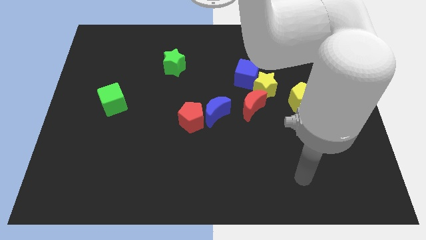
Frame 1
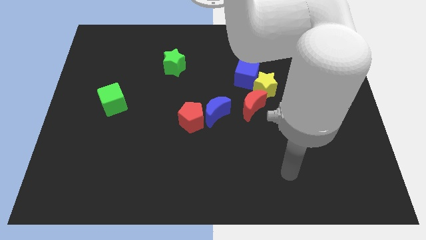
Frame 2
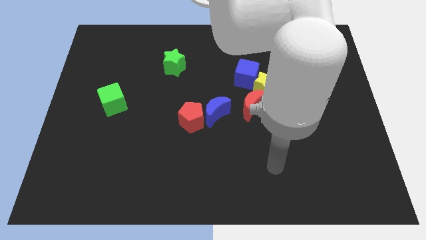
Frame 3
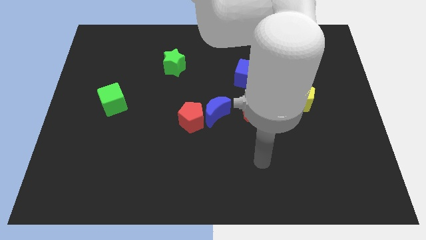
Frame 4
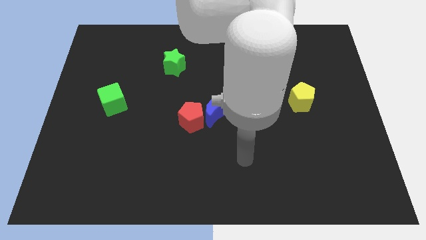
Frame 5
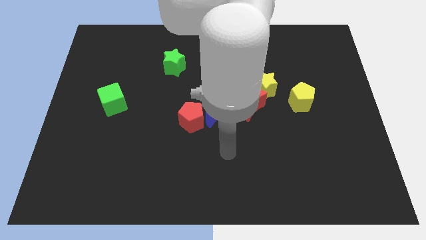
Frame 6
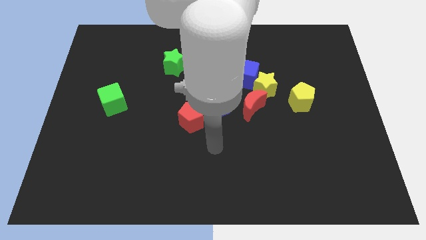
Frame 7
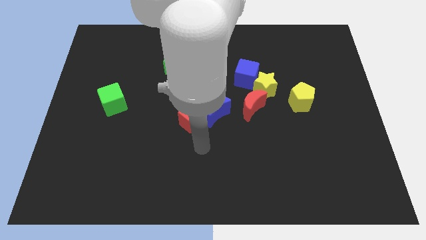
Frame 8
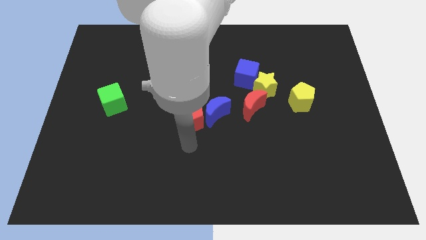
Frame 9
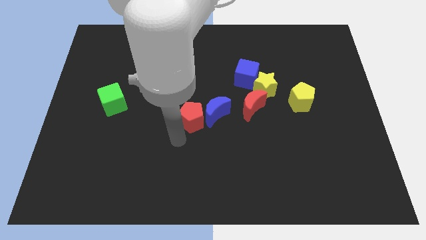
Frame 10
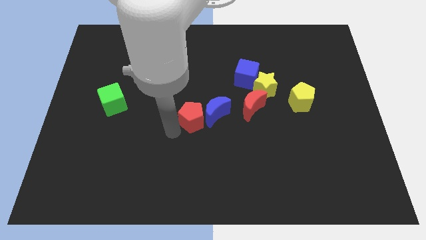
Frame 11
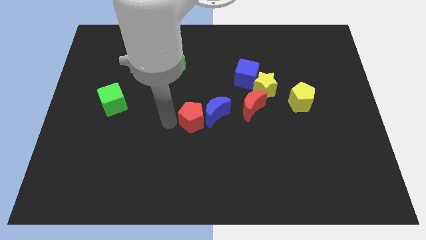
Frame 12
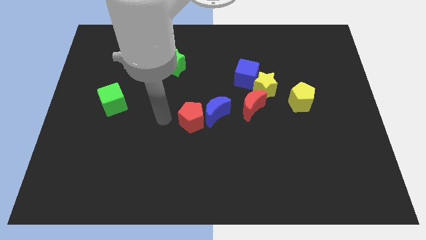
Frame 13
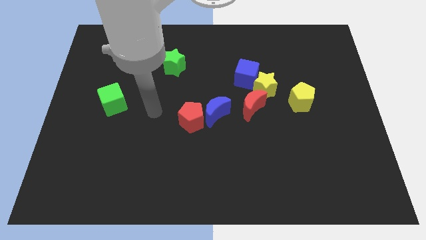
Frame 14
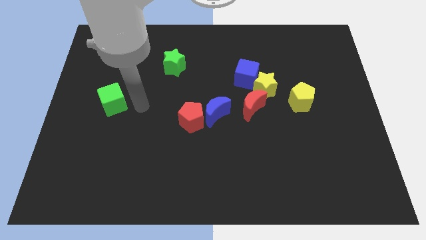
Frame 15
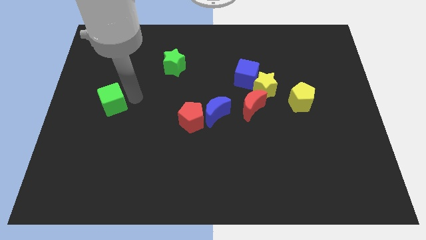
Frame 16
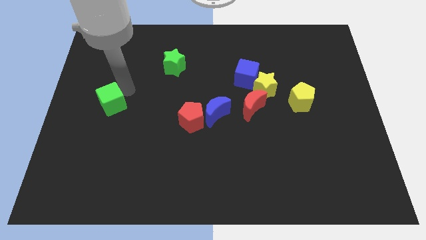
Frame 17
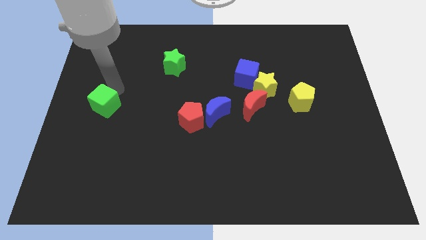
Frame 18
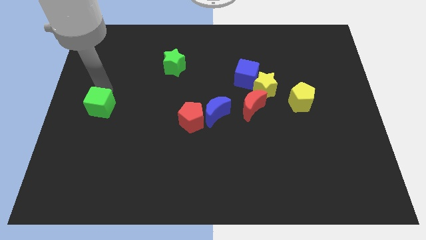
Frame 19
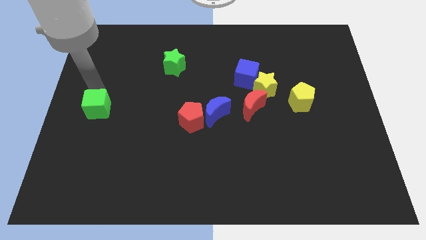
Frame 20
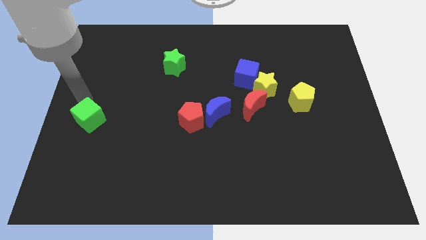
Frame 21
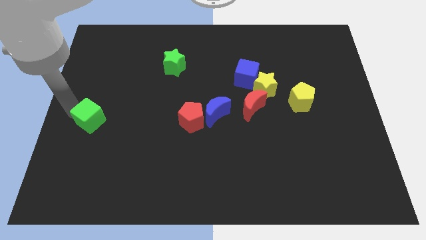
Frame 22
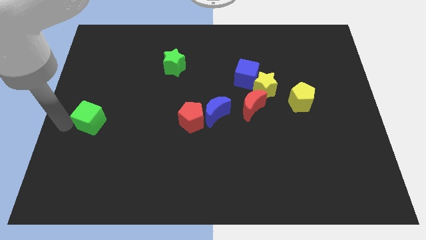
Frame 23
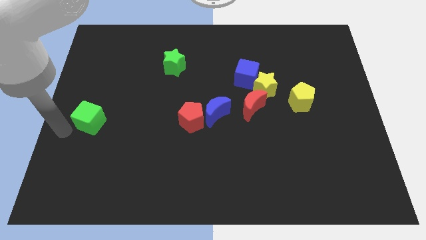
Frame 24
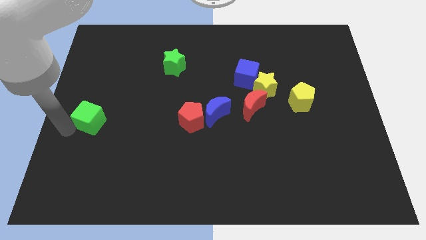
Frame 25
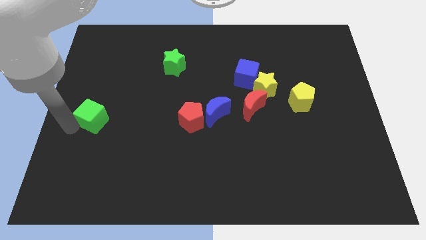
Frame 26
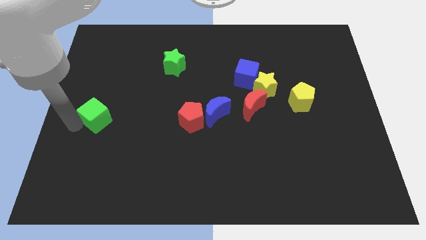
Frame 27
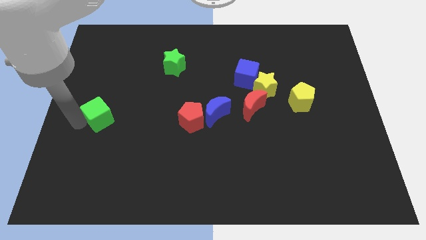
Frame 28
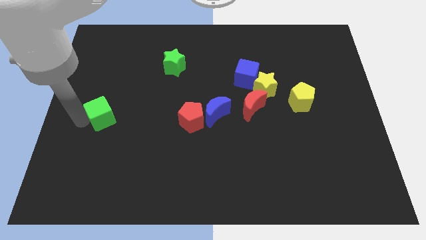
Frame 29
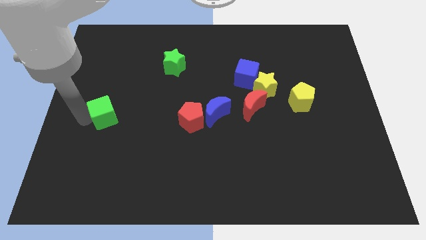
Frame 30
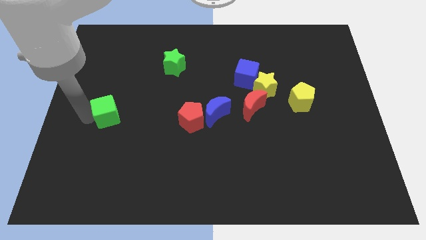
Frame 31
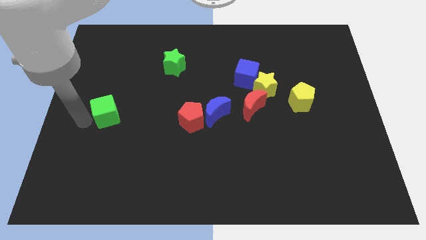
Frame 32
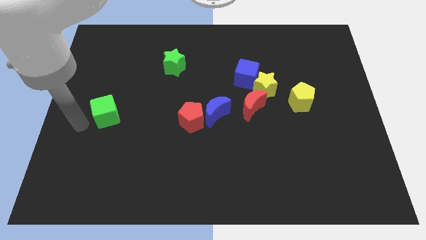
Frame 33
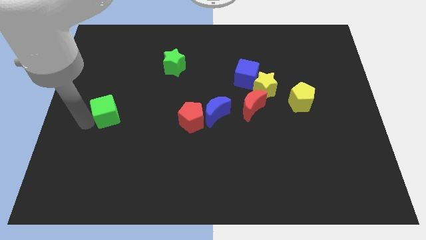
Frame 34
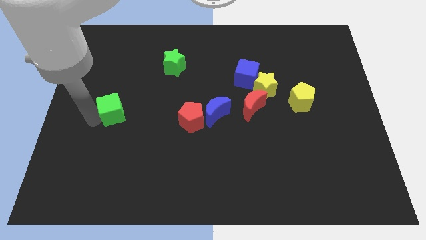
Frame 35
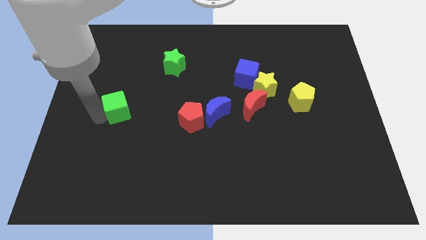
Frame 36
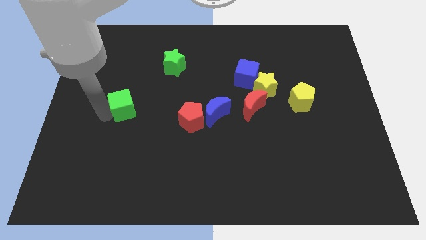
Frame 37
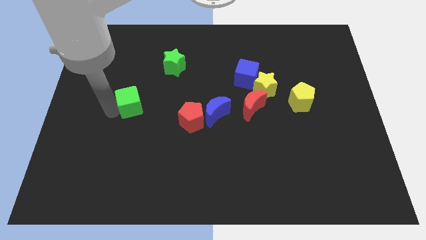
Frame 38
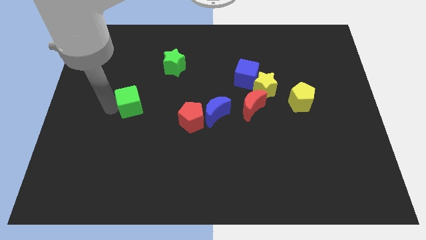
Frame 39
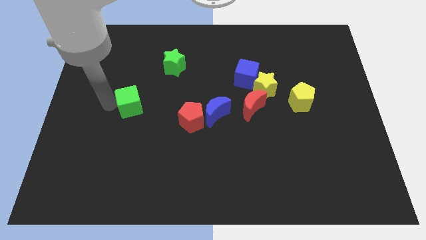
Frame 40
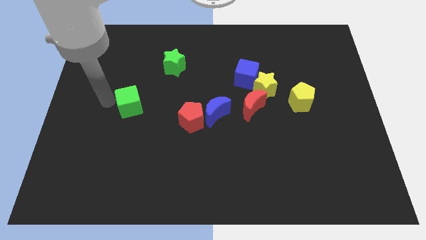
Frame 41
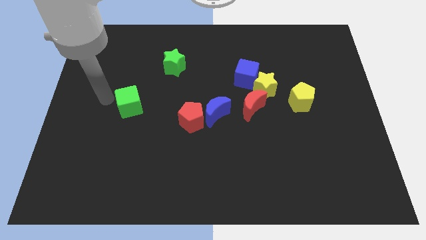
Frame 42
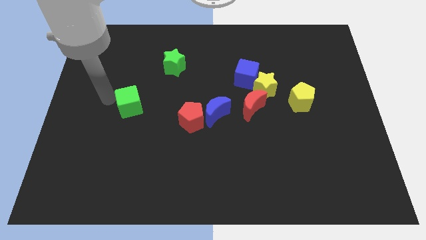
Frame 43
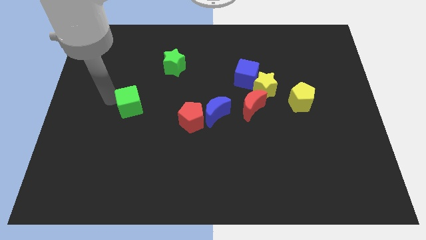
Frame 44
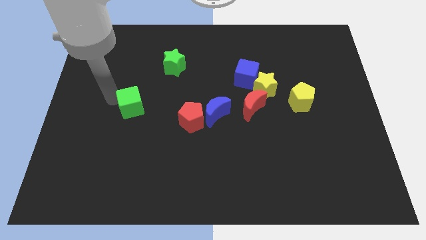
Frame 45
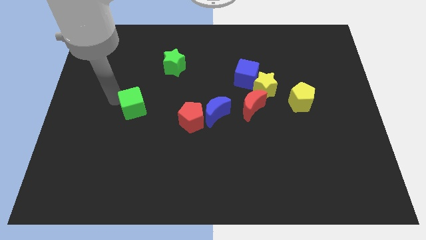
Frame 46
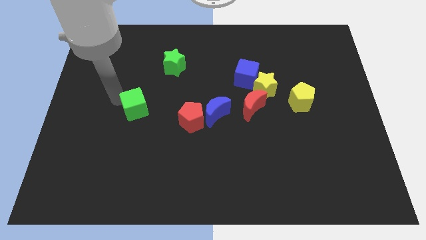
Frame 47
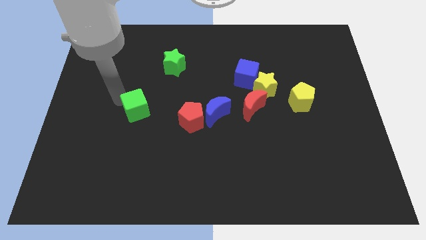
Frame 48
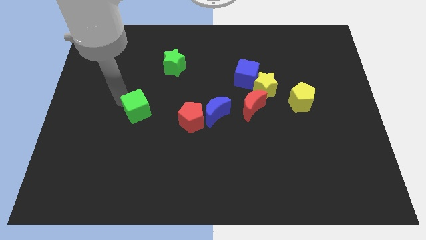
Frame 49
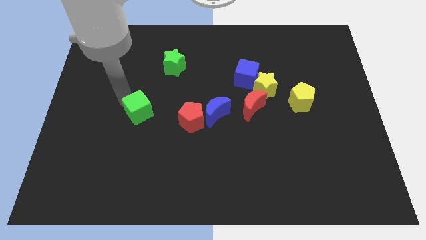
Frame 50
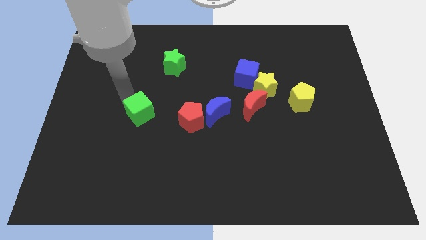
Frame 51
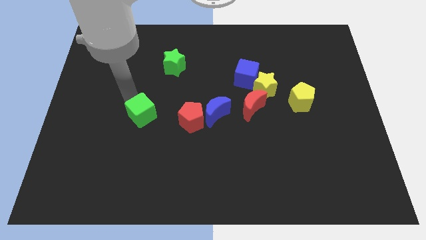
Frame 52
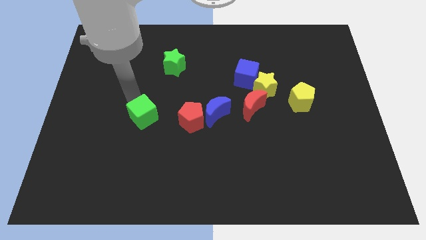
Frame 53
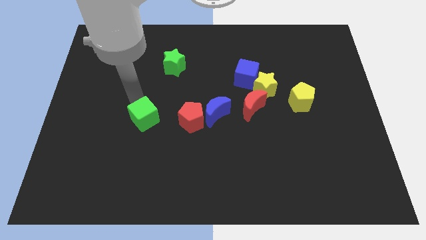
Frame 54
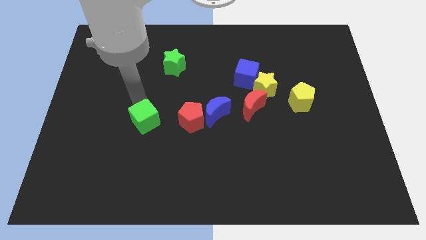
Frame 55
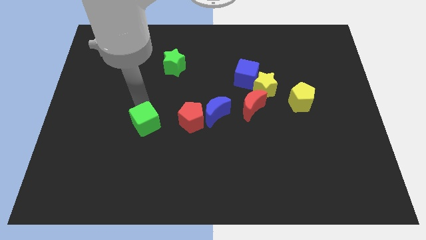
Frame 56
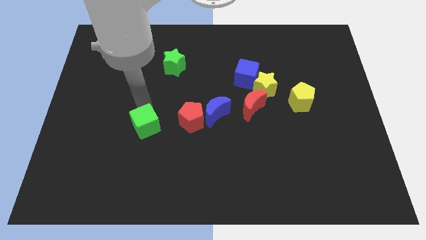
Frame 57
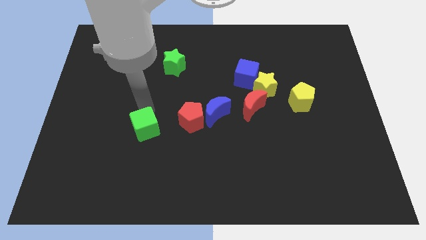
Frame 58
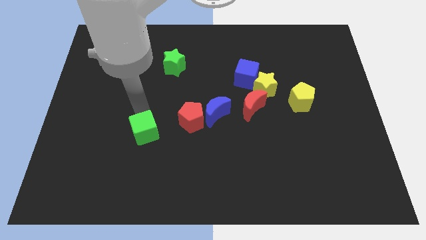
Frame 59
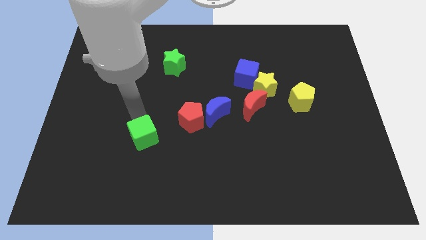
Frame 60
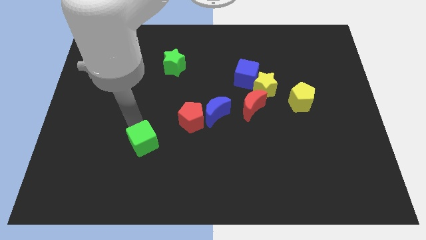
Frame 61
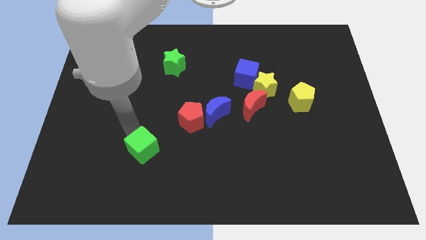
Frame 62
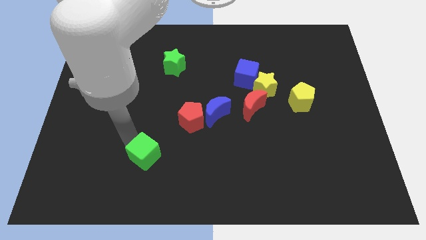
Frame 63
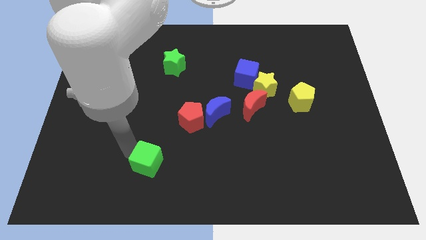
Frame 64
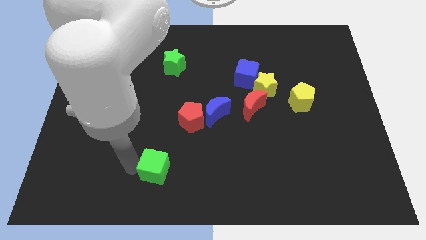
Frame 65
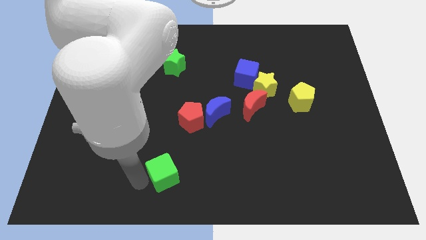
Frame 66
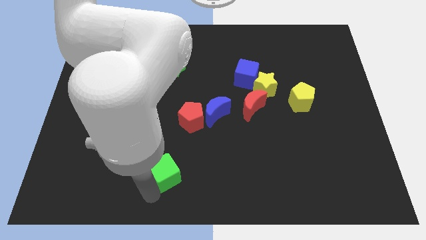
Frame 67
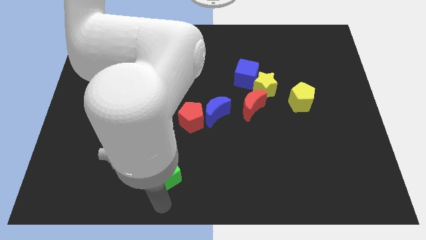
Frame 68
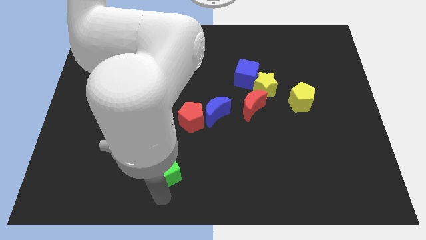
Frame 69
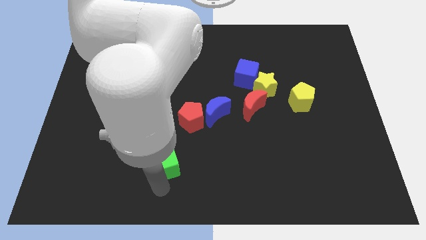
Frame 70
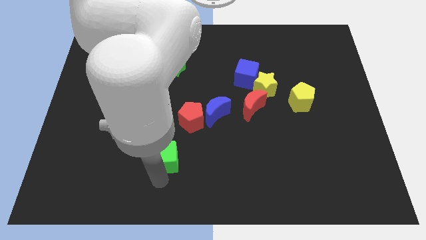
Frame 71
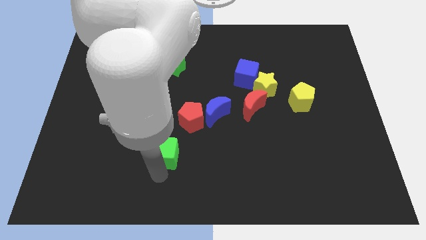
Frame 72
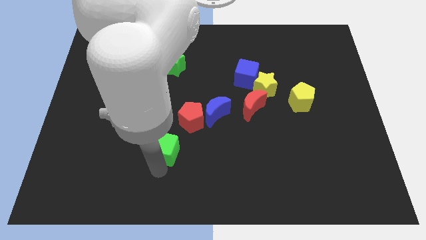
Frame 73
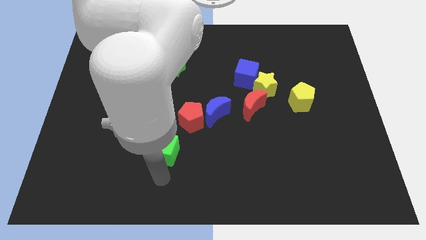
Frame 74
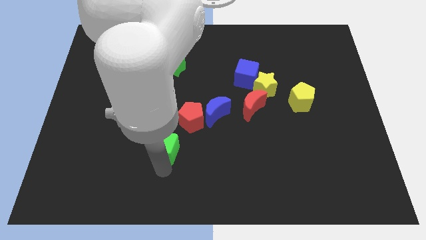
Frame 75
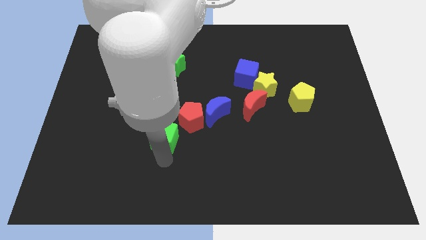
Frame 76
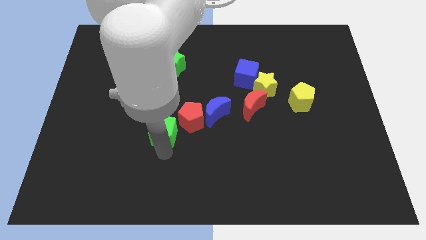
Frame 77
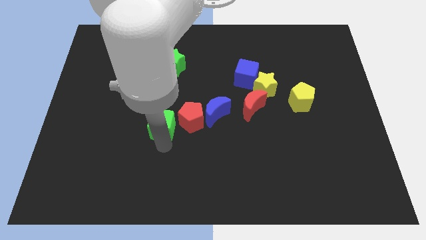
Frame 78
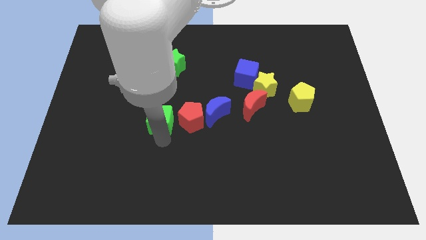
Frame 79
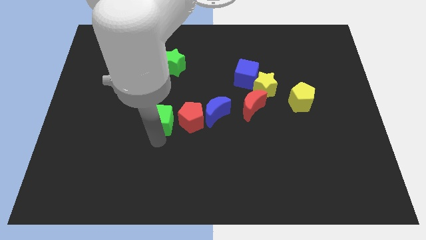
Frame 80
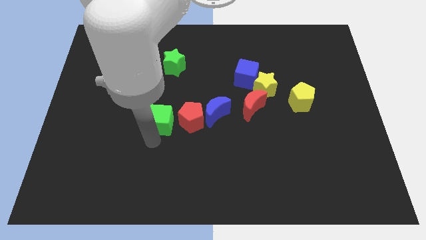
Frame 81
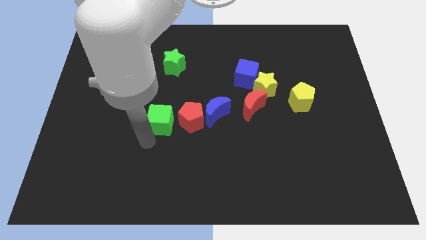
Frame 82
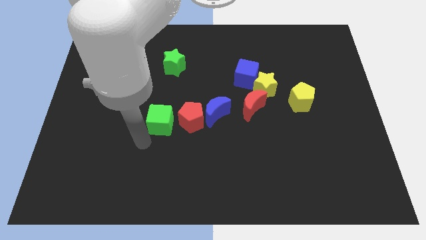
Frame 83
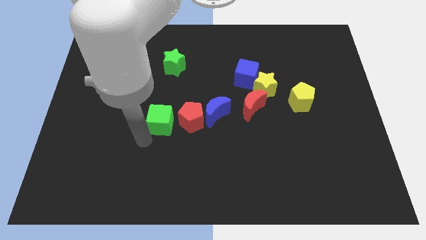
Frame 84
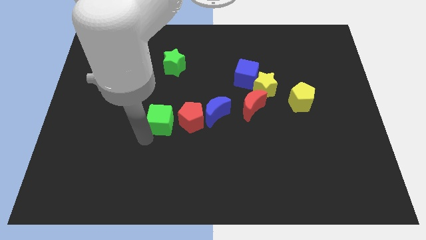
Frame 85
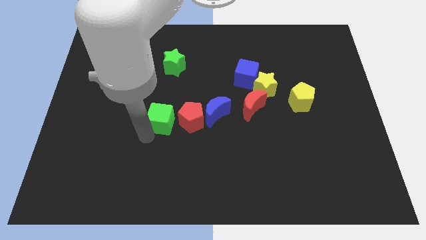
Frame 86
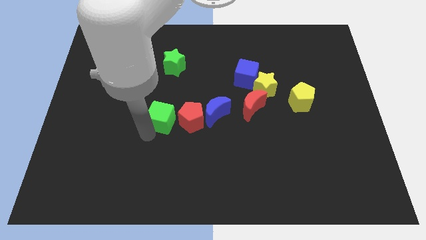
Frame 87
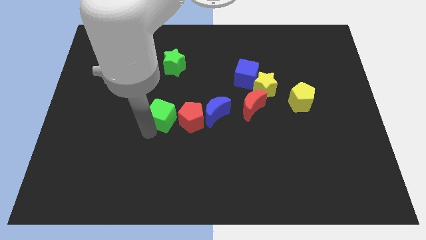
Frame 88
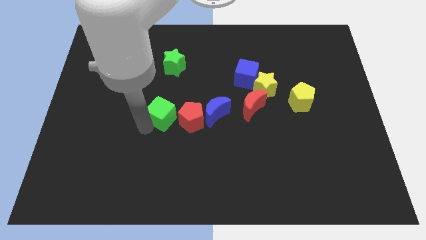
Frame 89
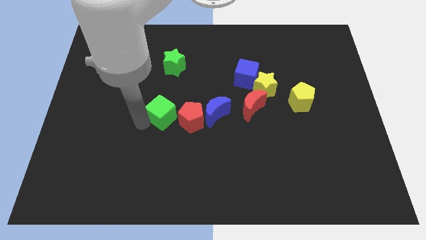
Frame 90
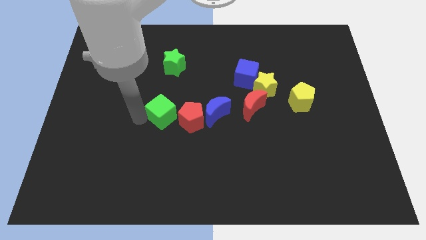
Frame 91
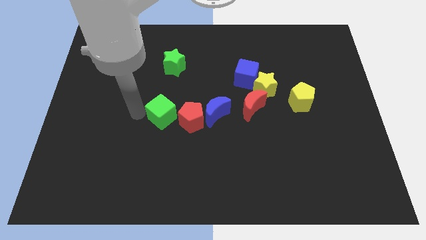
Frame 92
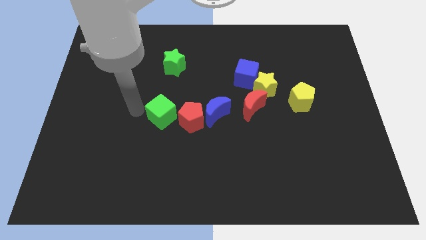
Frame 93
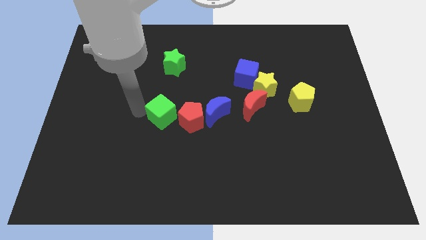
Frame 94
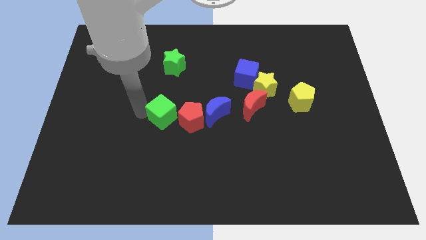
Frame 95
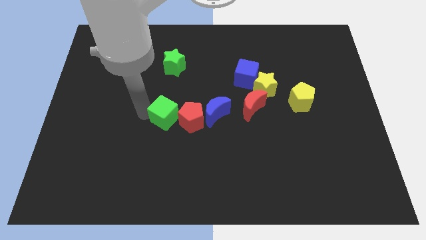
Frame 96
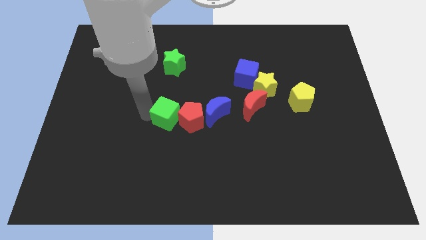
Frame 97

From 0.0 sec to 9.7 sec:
push the green cube close to the red pentagon
